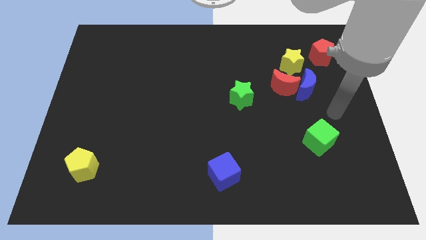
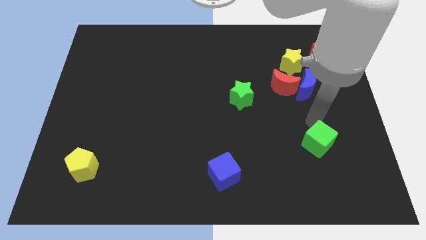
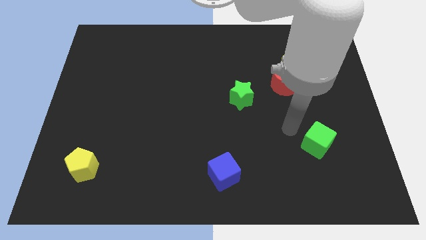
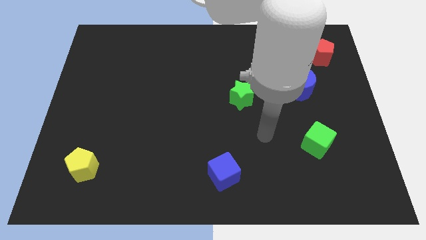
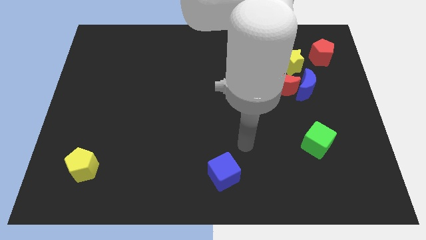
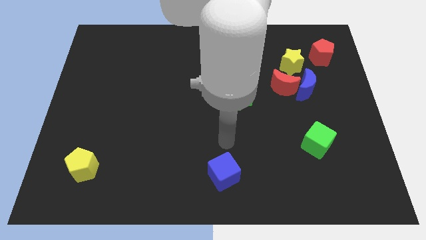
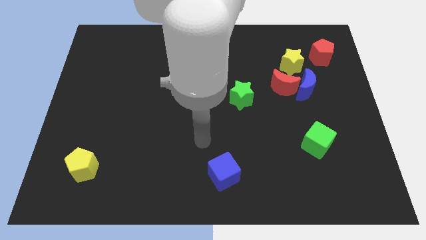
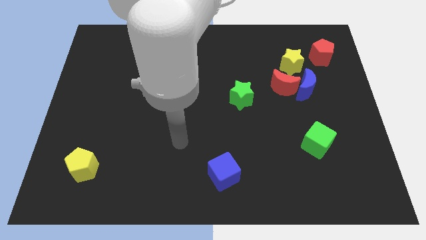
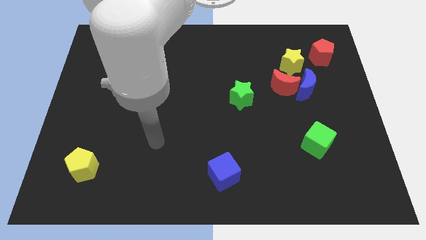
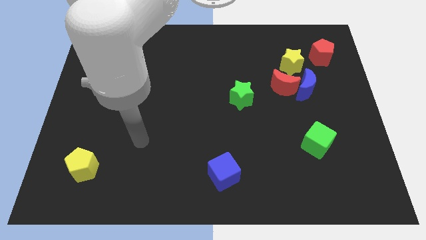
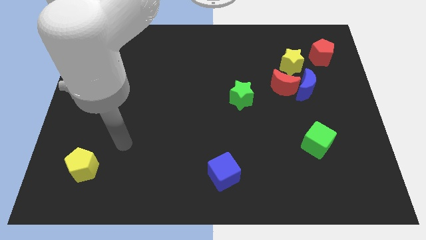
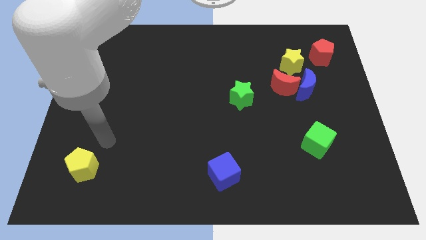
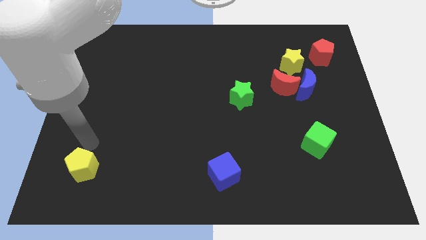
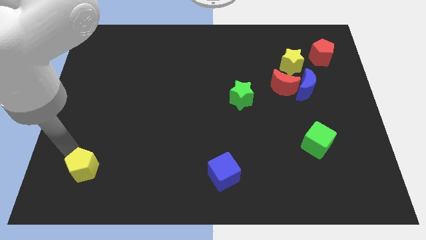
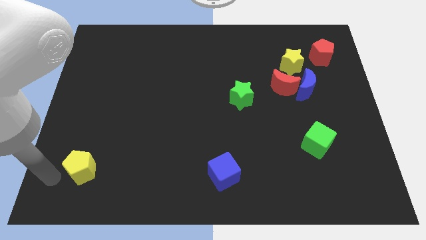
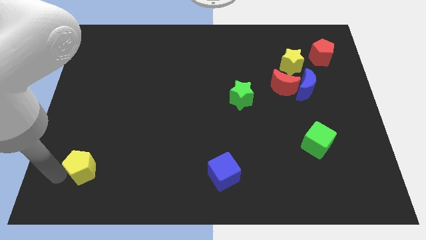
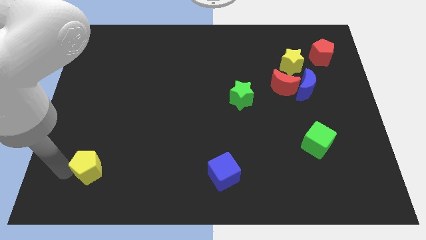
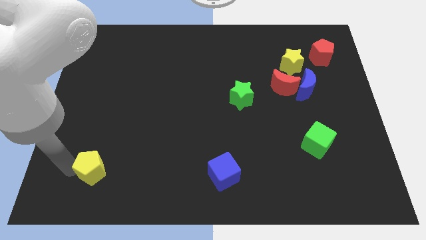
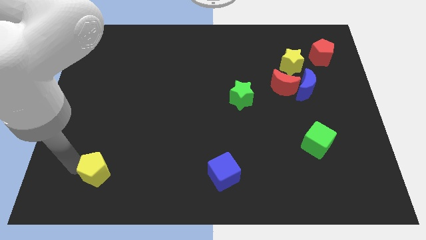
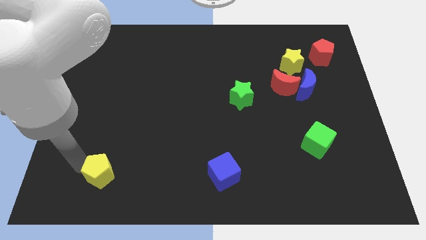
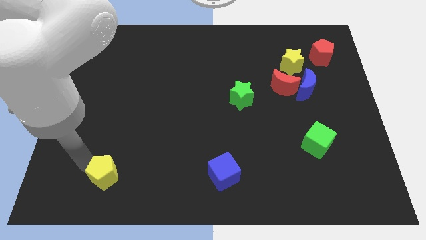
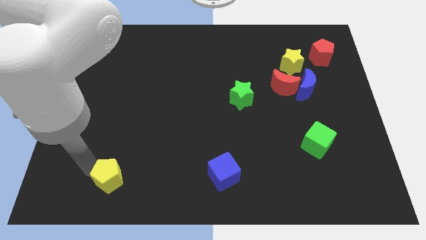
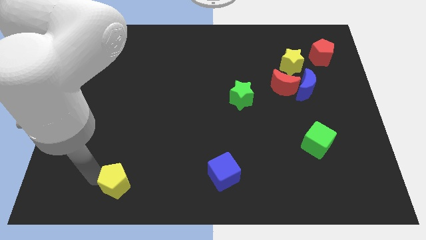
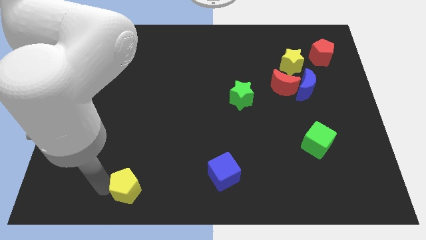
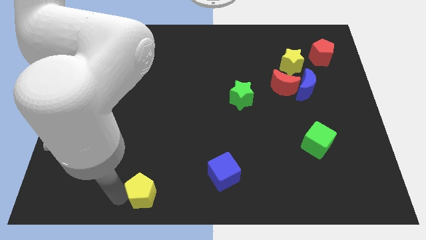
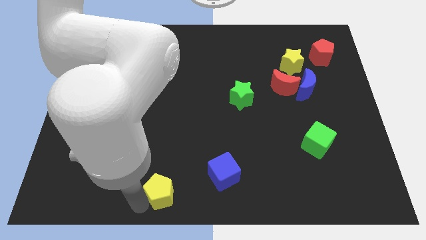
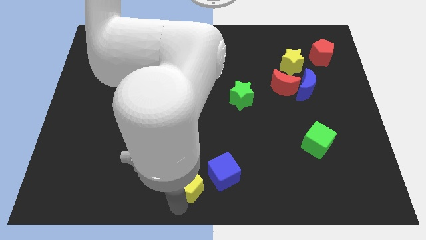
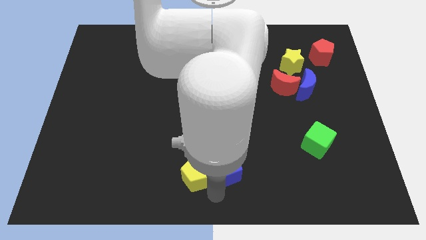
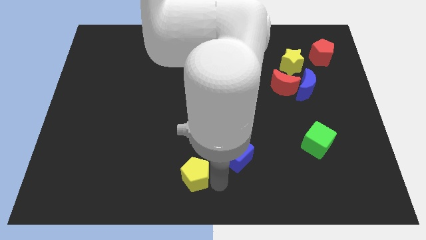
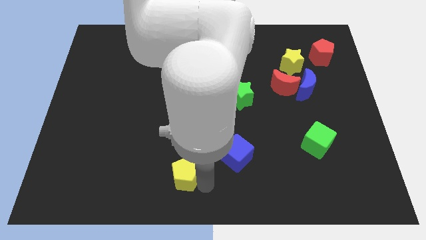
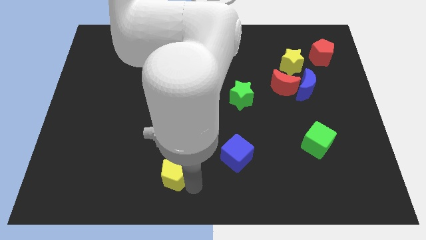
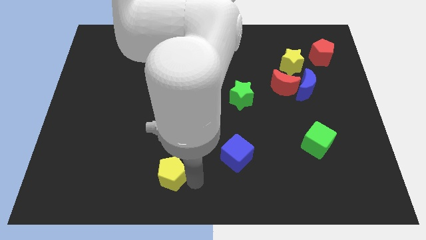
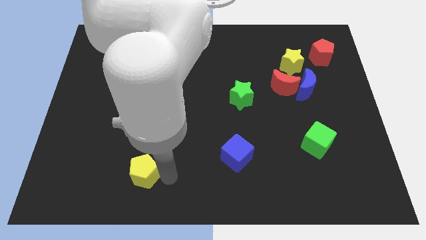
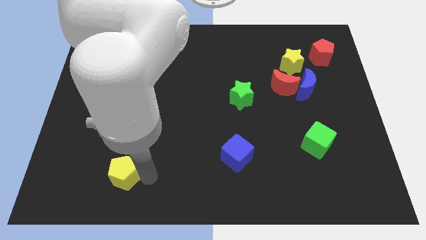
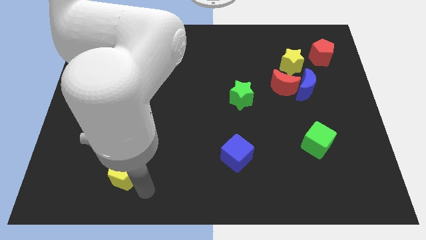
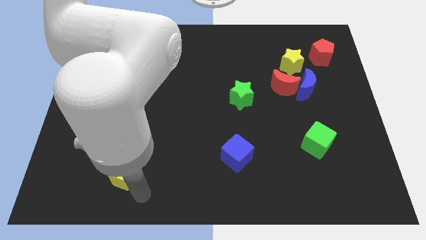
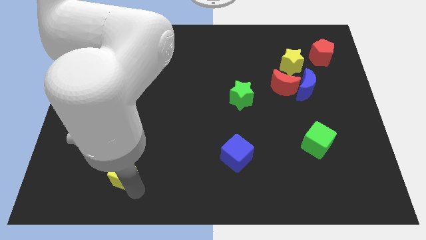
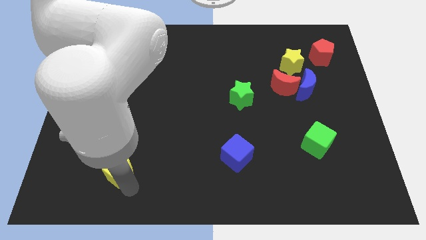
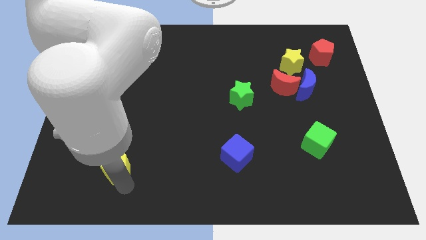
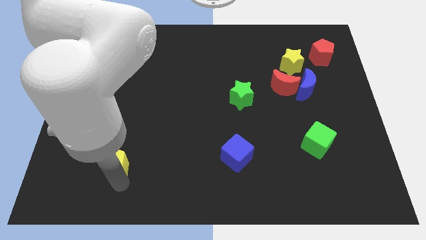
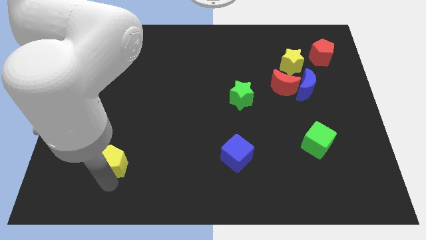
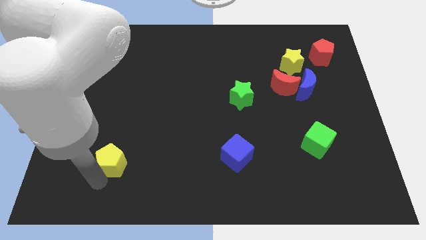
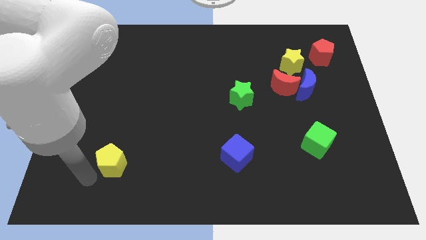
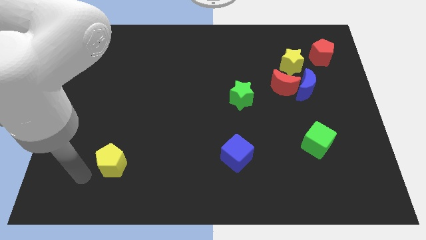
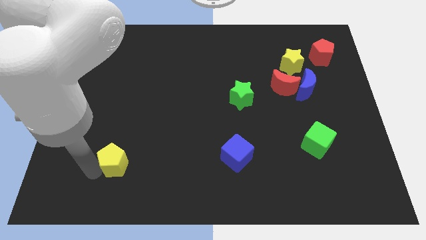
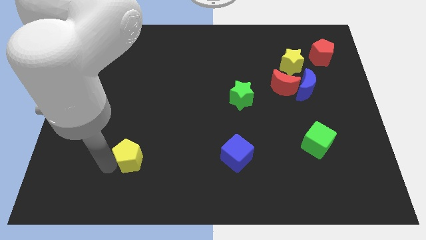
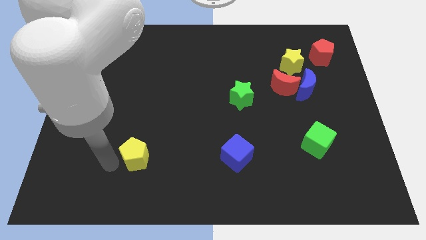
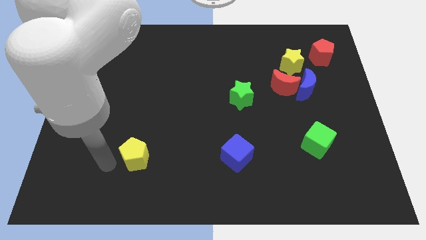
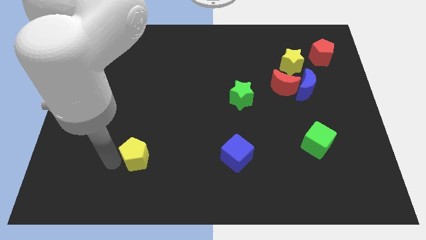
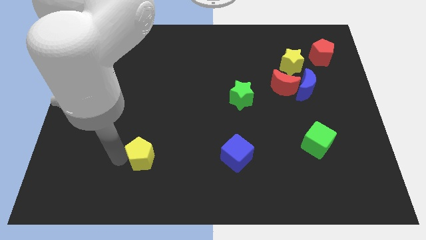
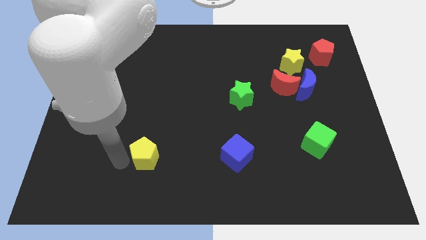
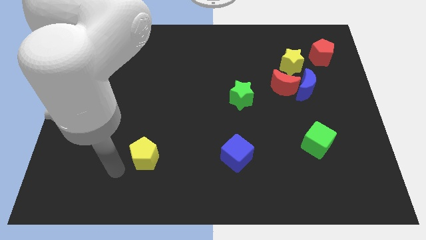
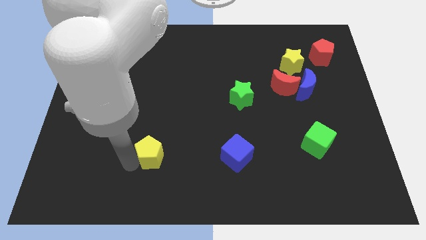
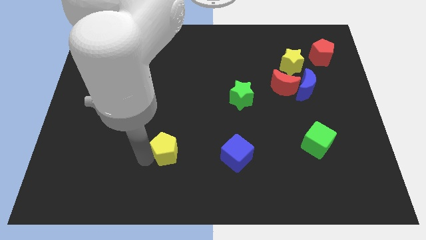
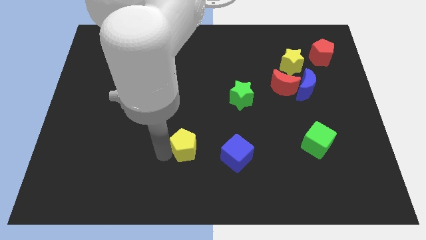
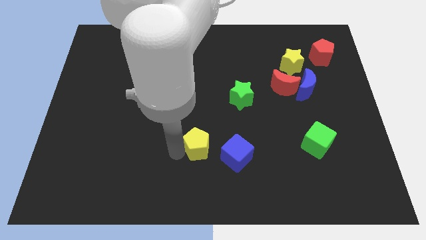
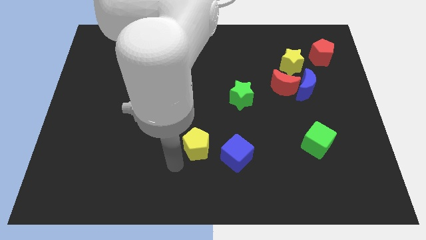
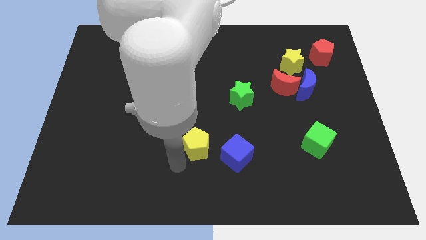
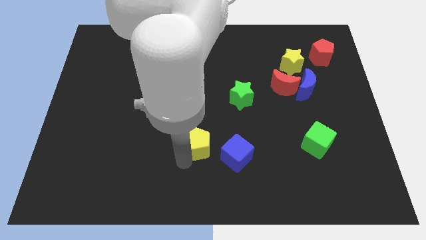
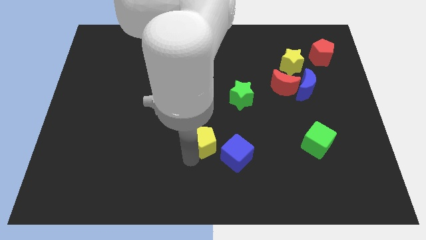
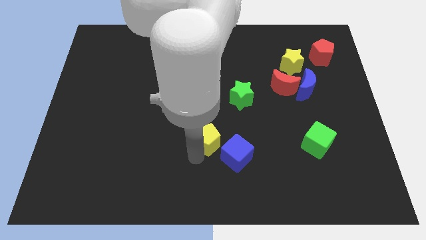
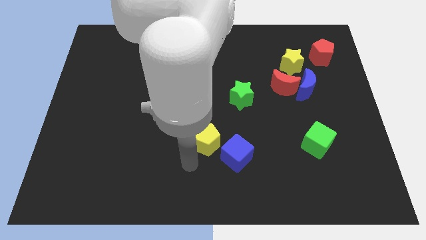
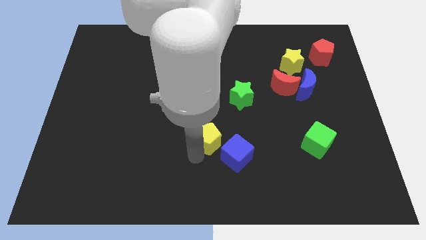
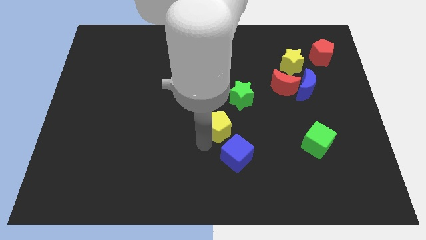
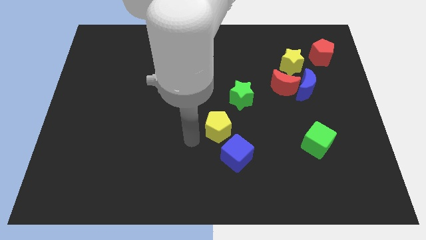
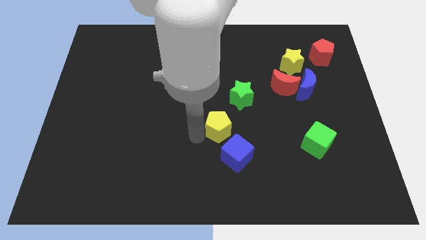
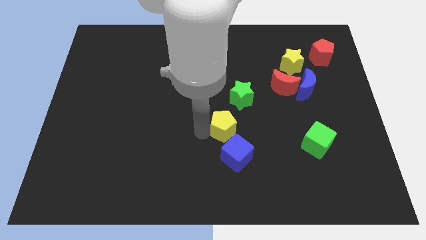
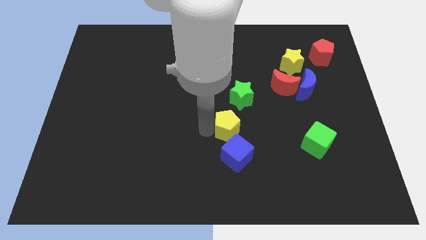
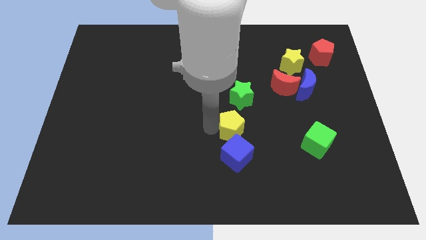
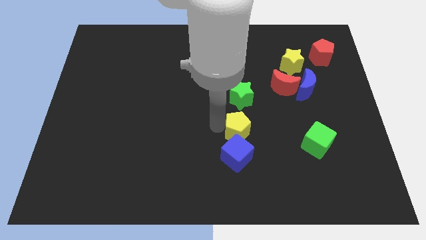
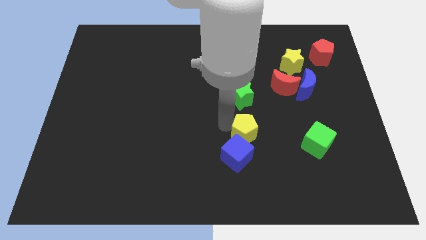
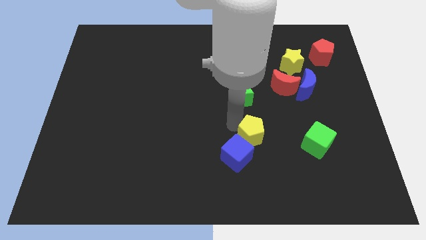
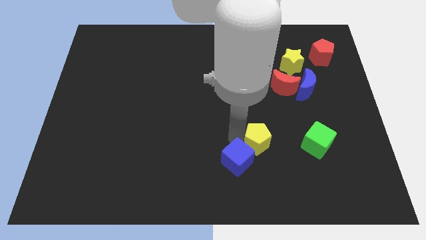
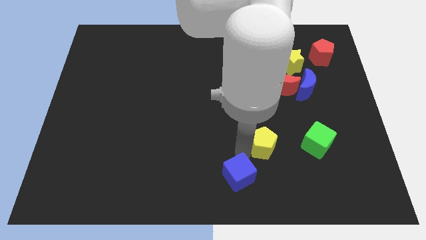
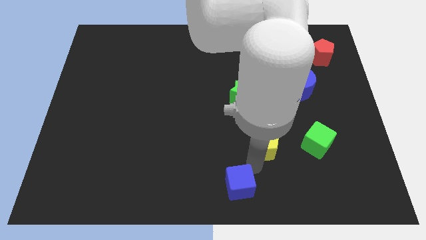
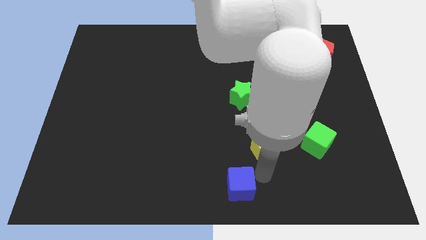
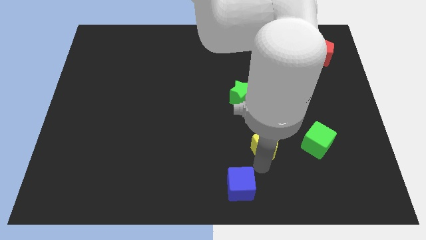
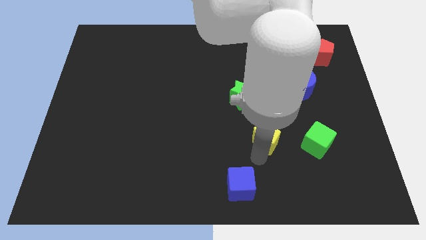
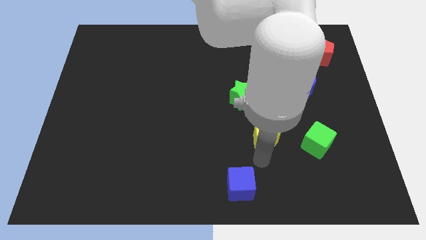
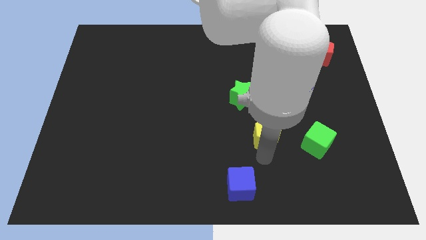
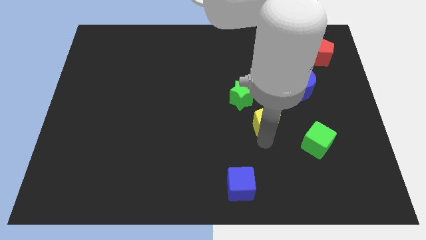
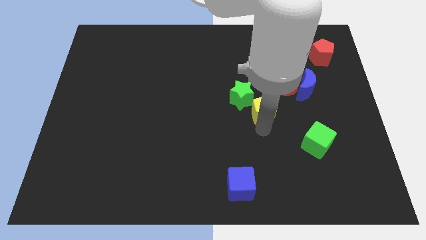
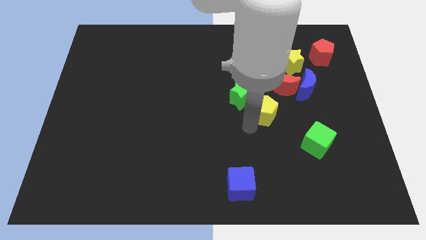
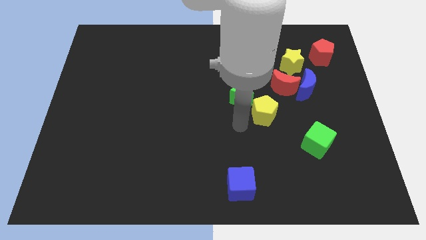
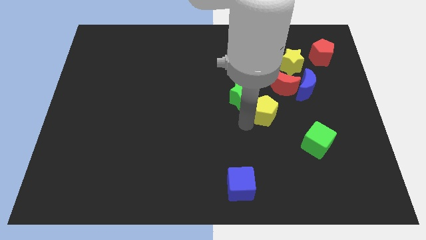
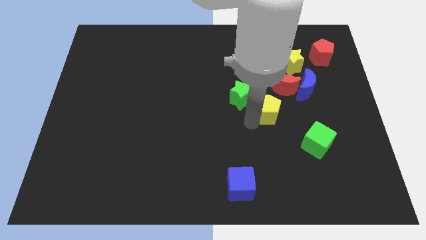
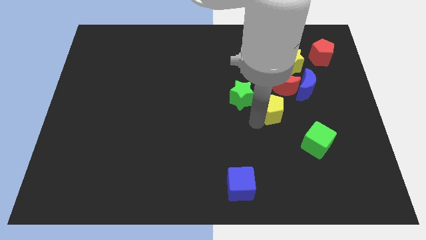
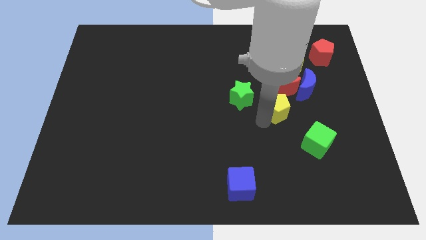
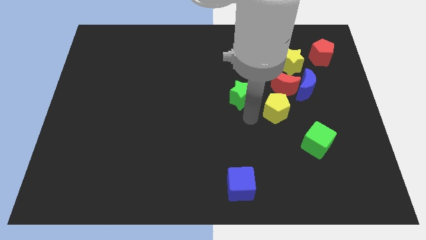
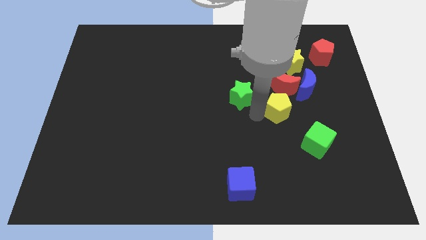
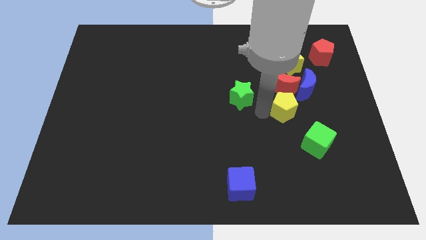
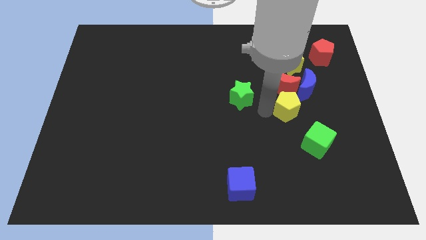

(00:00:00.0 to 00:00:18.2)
push the yellow pentagon to the bottom right side of the red moon
